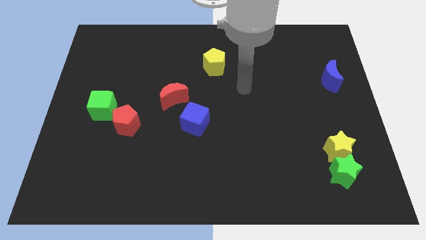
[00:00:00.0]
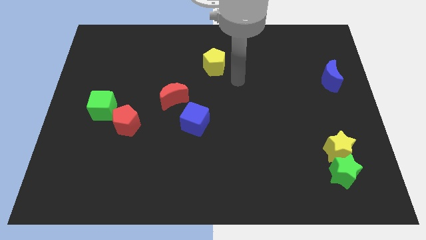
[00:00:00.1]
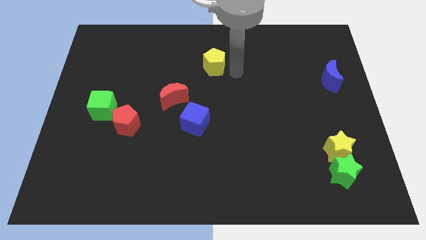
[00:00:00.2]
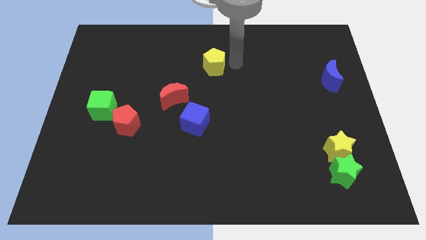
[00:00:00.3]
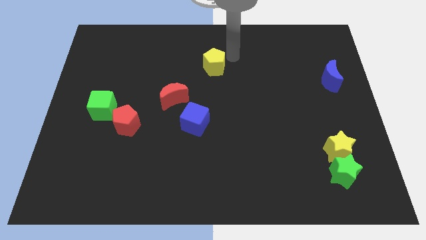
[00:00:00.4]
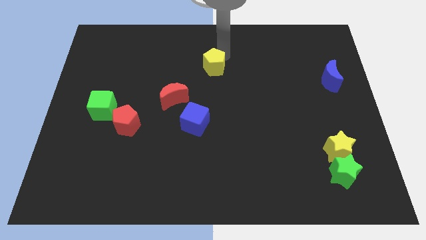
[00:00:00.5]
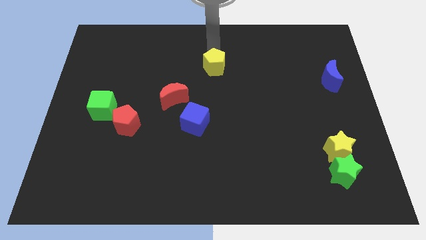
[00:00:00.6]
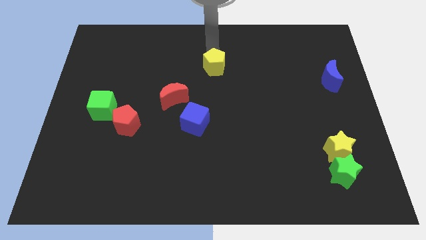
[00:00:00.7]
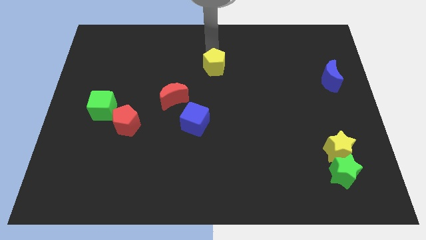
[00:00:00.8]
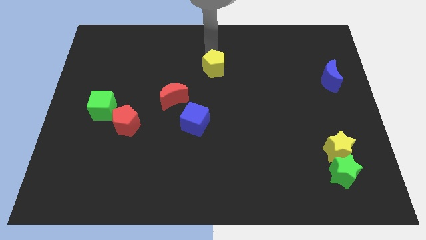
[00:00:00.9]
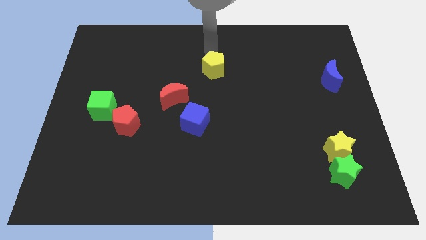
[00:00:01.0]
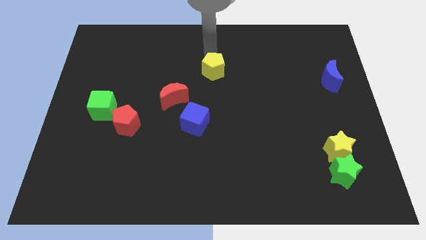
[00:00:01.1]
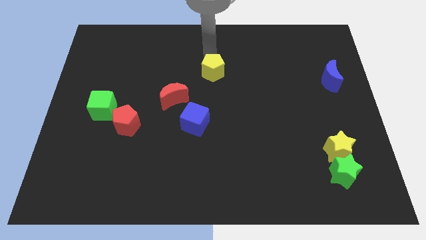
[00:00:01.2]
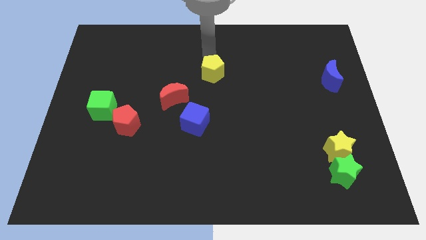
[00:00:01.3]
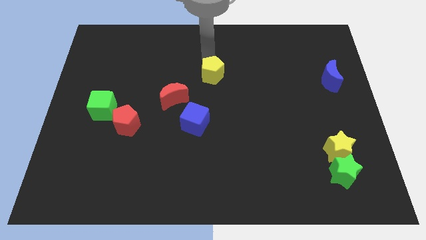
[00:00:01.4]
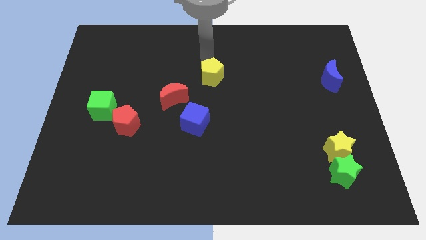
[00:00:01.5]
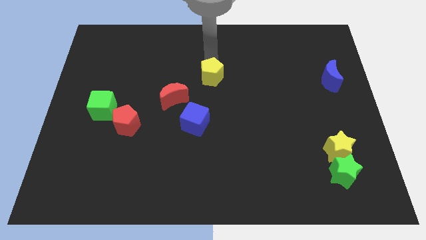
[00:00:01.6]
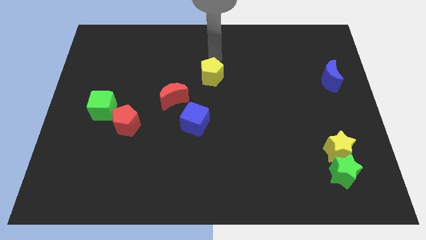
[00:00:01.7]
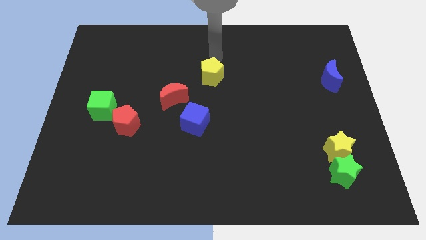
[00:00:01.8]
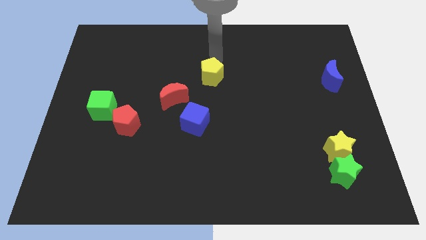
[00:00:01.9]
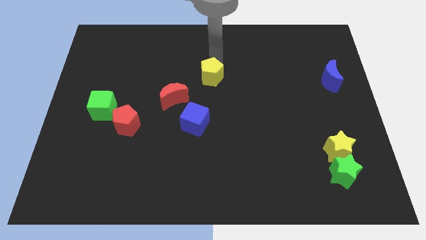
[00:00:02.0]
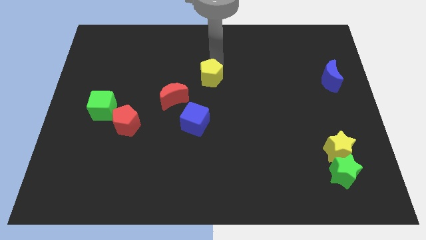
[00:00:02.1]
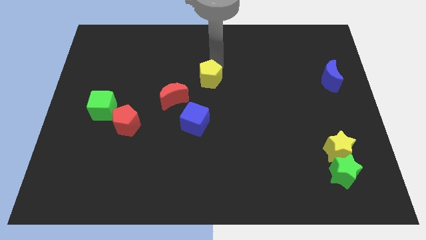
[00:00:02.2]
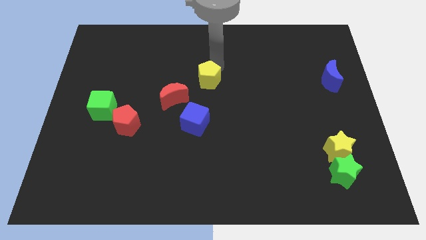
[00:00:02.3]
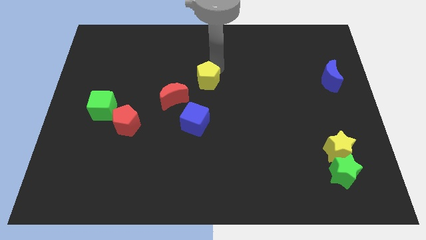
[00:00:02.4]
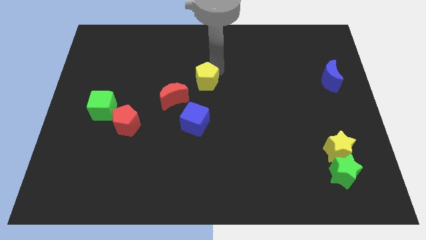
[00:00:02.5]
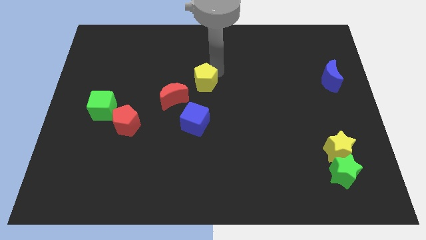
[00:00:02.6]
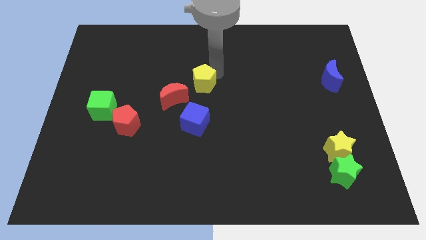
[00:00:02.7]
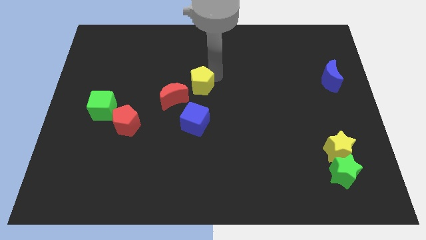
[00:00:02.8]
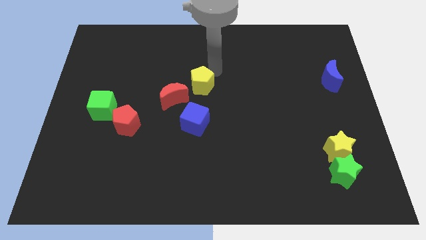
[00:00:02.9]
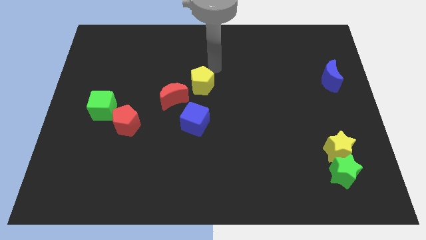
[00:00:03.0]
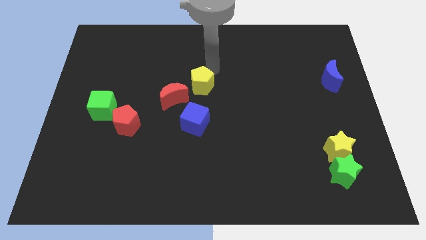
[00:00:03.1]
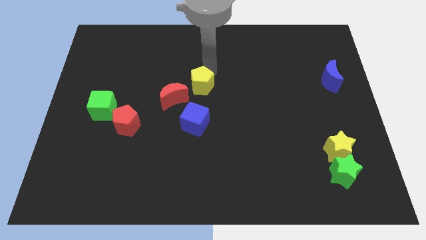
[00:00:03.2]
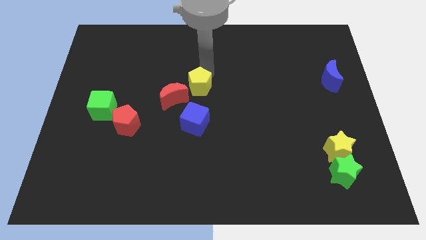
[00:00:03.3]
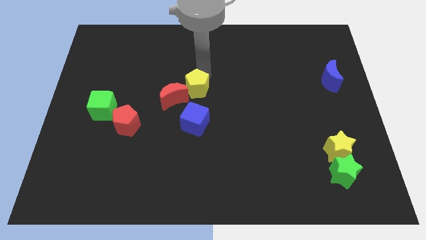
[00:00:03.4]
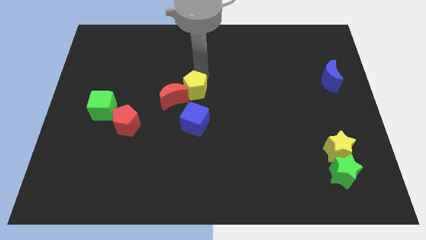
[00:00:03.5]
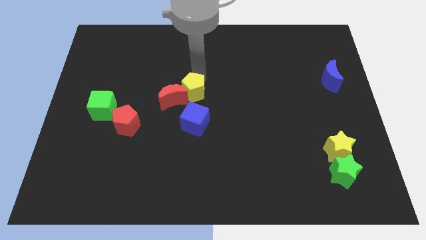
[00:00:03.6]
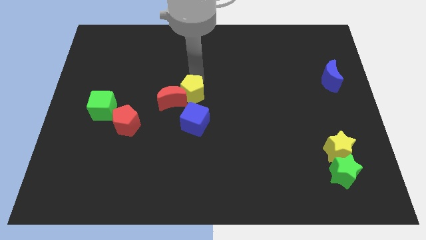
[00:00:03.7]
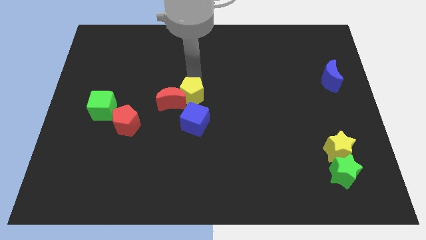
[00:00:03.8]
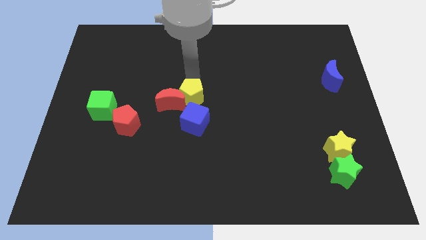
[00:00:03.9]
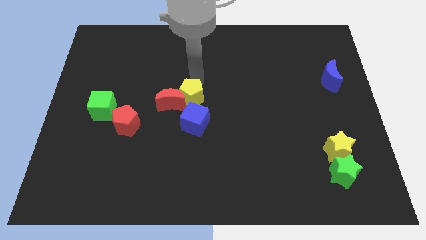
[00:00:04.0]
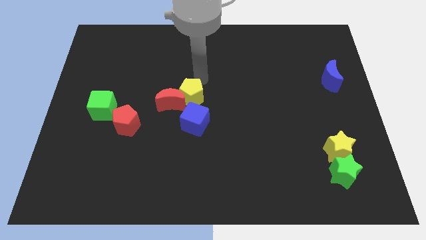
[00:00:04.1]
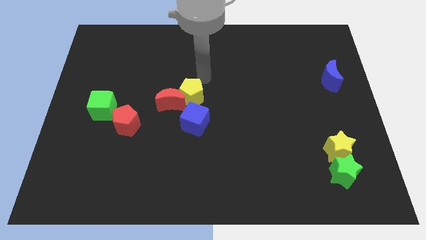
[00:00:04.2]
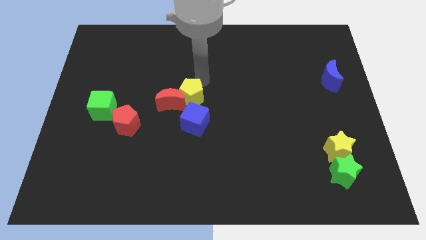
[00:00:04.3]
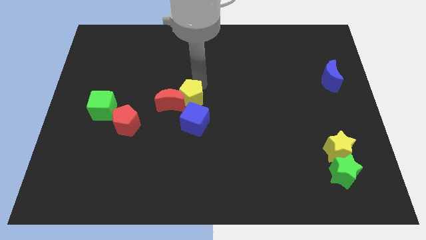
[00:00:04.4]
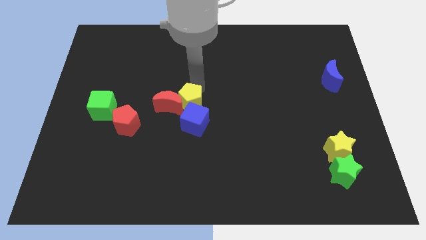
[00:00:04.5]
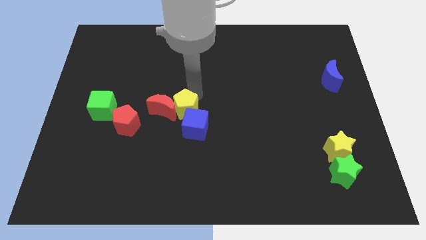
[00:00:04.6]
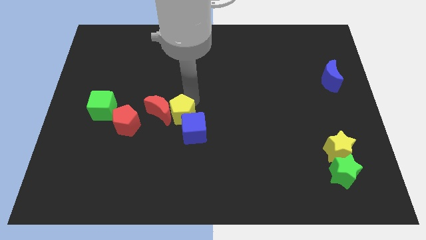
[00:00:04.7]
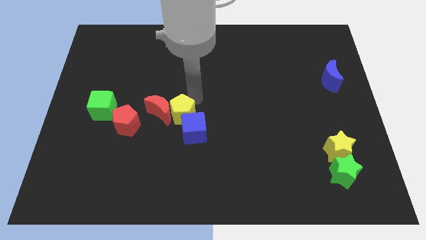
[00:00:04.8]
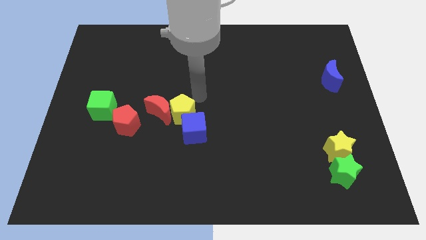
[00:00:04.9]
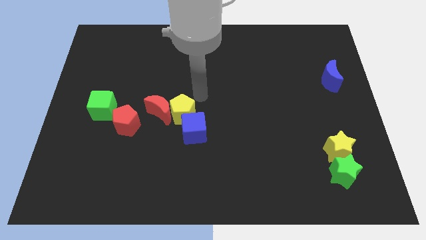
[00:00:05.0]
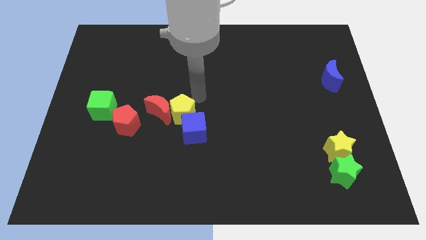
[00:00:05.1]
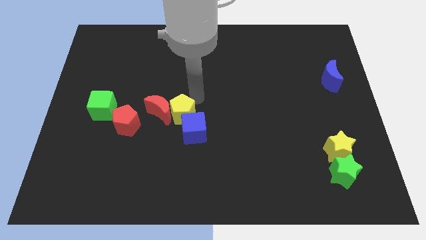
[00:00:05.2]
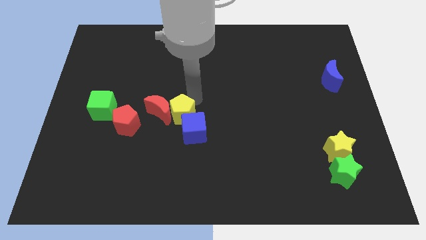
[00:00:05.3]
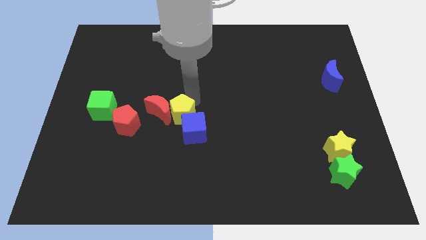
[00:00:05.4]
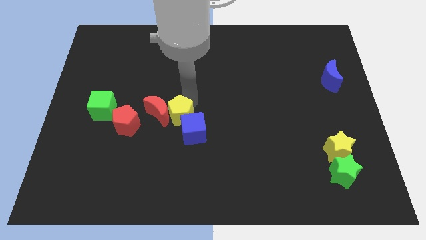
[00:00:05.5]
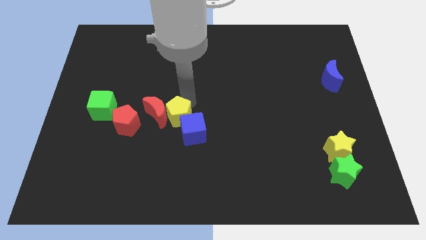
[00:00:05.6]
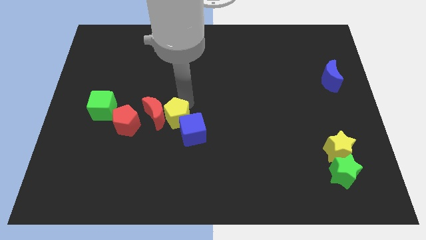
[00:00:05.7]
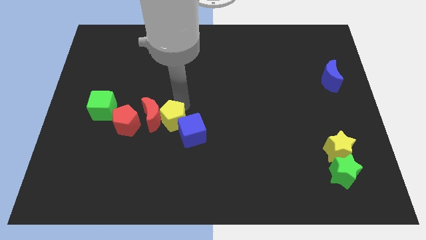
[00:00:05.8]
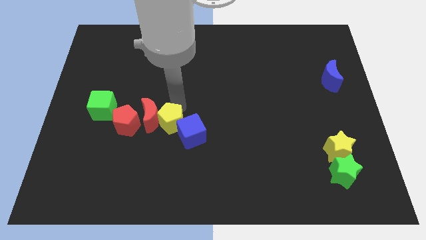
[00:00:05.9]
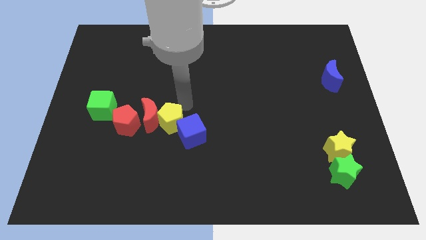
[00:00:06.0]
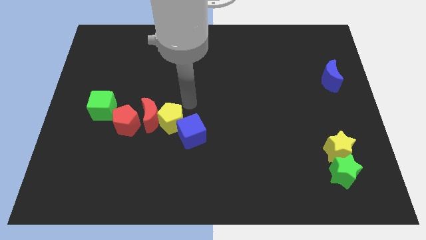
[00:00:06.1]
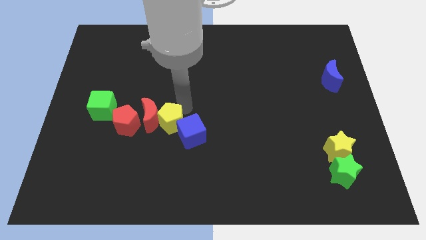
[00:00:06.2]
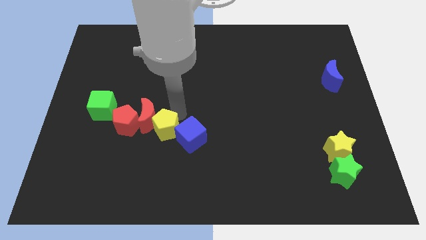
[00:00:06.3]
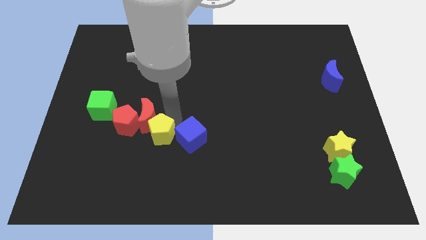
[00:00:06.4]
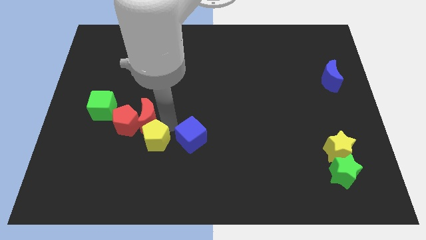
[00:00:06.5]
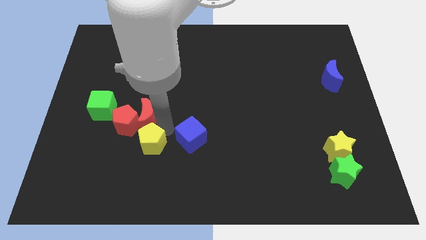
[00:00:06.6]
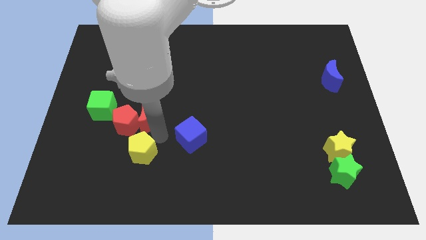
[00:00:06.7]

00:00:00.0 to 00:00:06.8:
push the yellow pentagon below the red pentagon

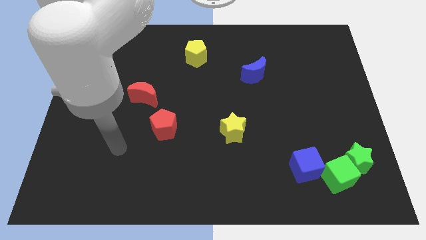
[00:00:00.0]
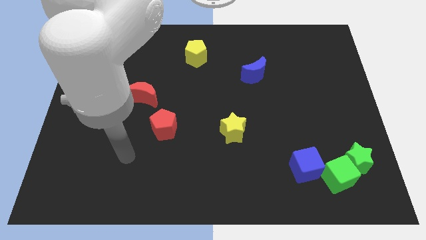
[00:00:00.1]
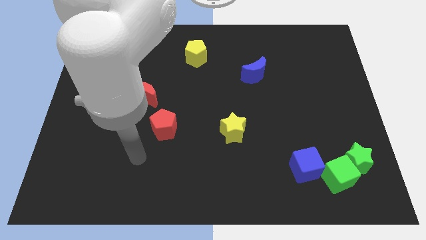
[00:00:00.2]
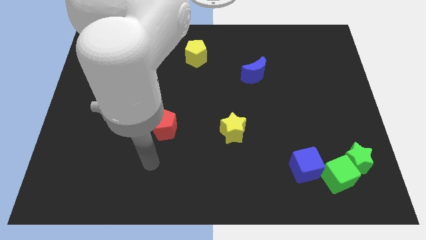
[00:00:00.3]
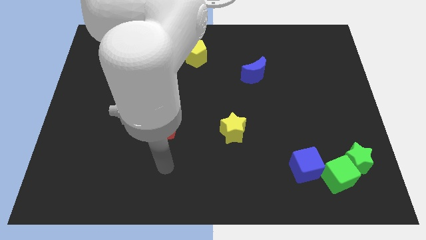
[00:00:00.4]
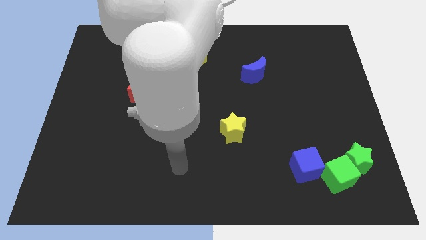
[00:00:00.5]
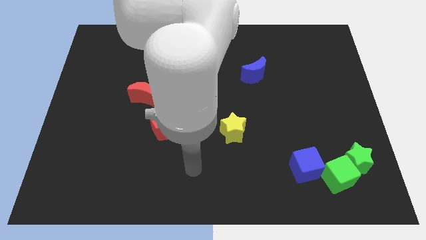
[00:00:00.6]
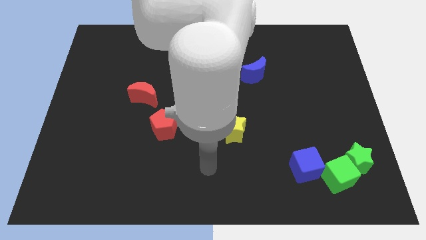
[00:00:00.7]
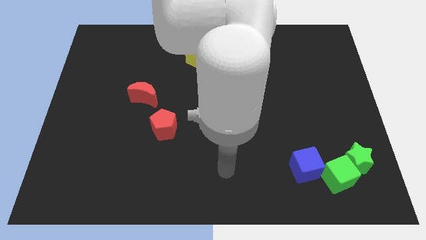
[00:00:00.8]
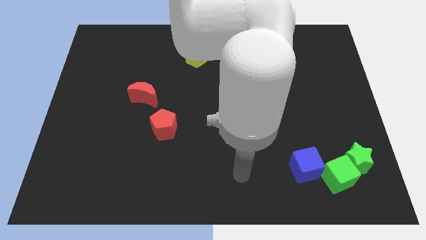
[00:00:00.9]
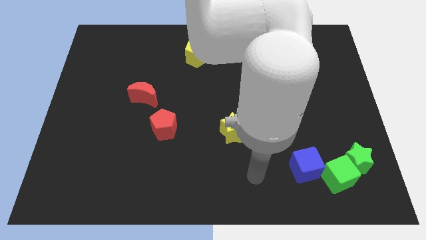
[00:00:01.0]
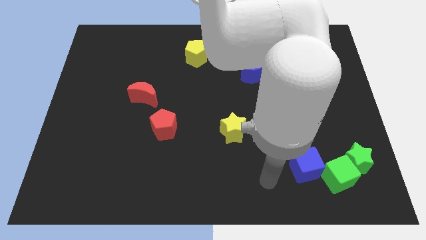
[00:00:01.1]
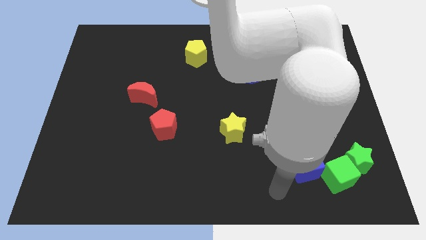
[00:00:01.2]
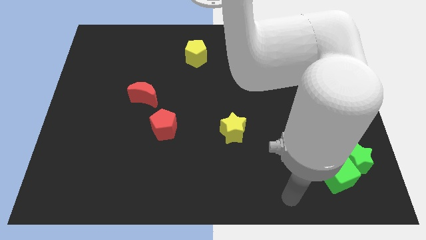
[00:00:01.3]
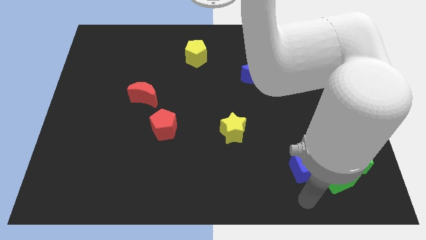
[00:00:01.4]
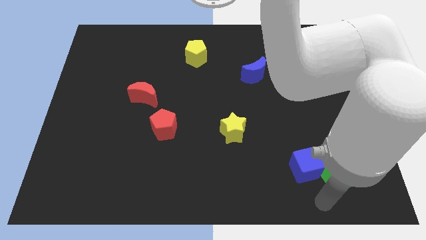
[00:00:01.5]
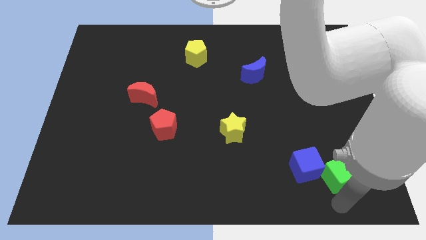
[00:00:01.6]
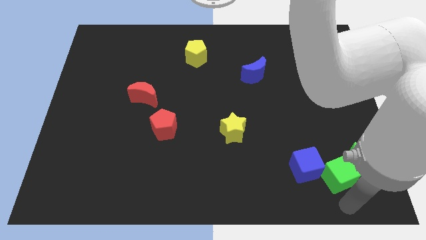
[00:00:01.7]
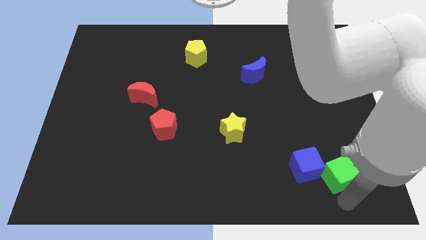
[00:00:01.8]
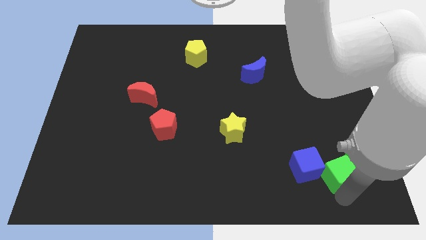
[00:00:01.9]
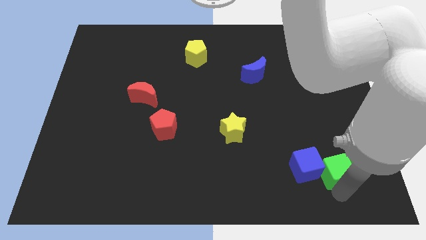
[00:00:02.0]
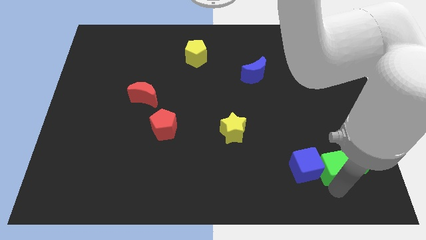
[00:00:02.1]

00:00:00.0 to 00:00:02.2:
move the green cube diagonally up and to the left of the green star
